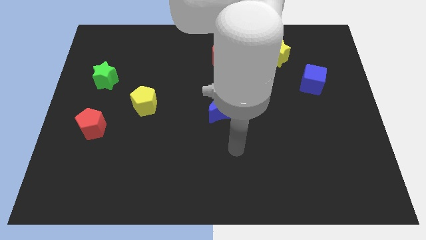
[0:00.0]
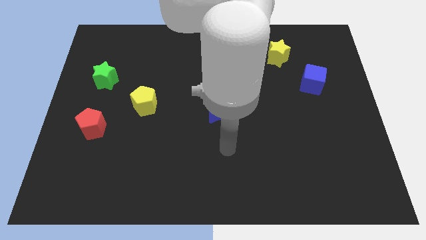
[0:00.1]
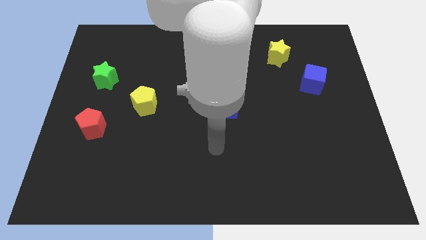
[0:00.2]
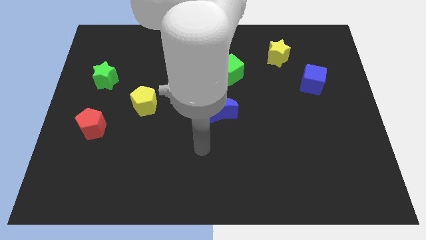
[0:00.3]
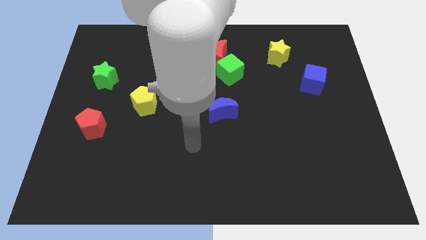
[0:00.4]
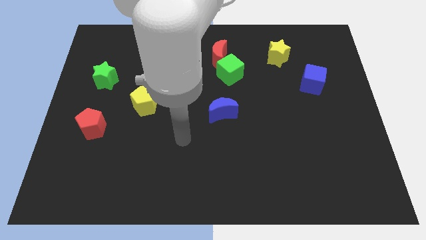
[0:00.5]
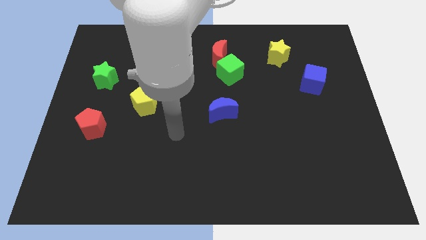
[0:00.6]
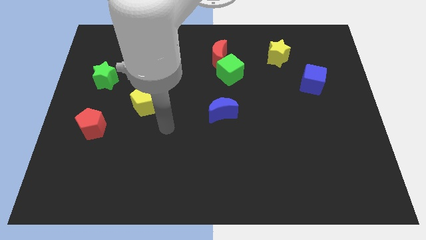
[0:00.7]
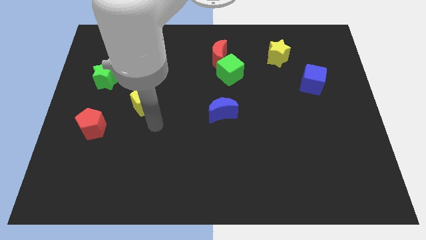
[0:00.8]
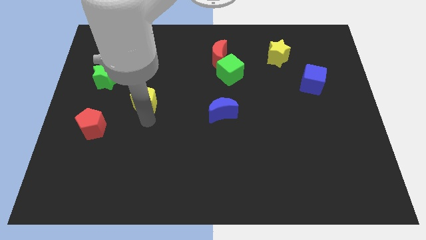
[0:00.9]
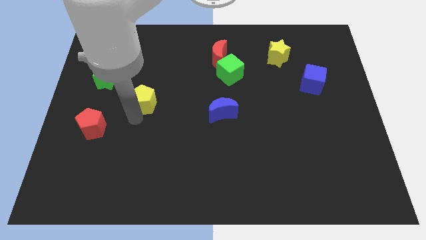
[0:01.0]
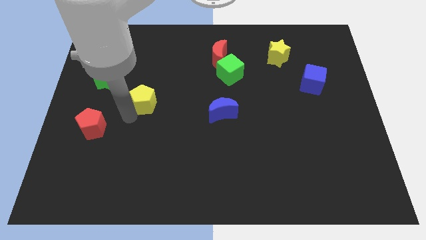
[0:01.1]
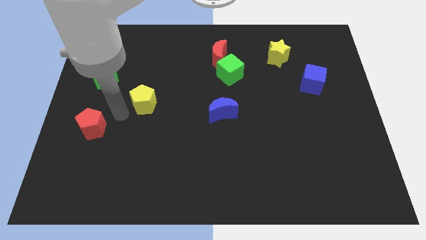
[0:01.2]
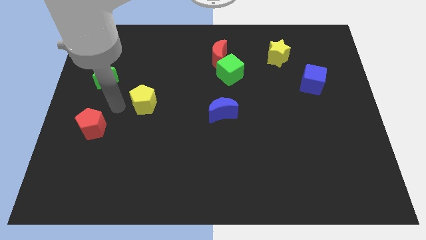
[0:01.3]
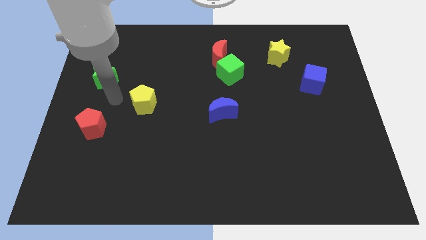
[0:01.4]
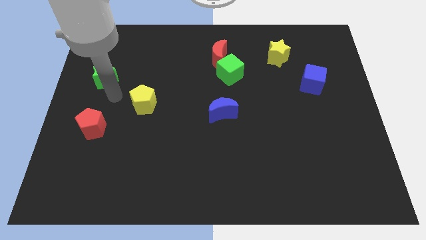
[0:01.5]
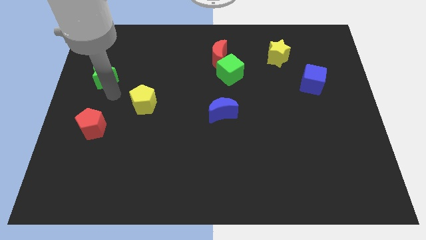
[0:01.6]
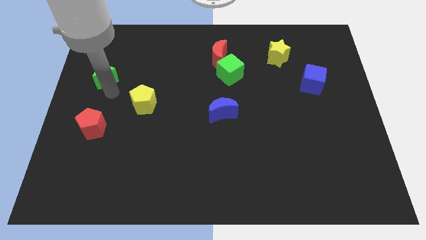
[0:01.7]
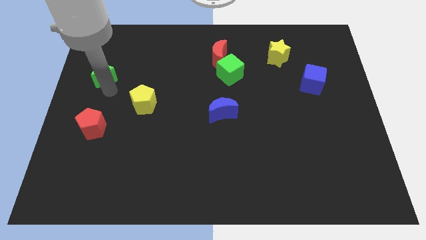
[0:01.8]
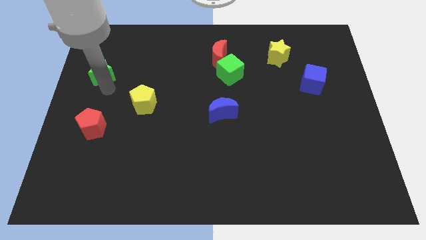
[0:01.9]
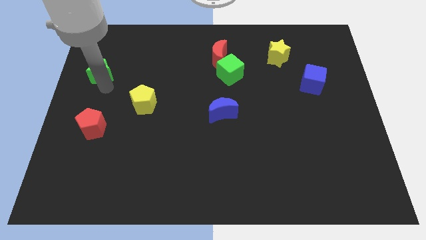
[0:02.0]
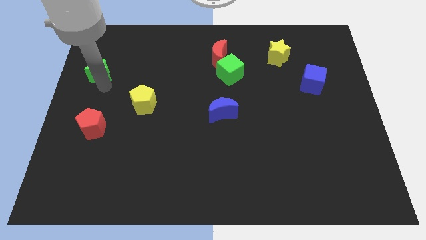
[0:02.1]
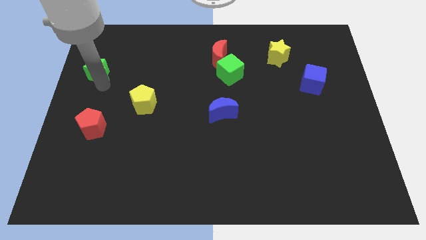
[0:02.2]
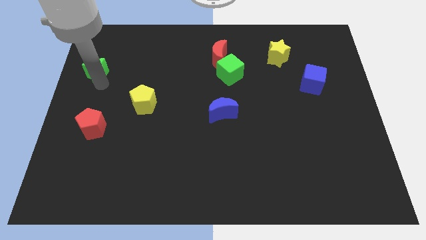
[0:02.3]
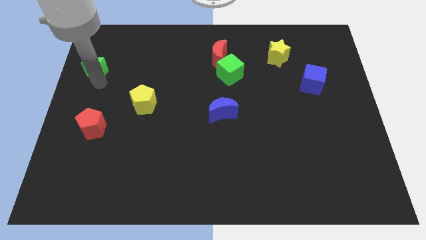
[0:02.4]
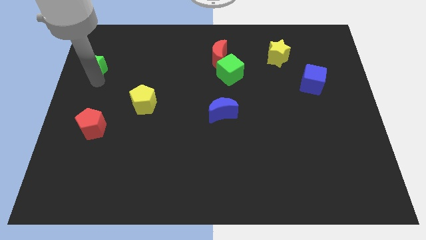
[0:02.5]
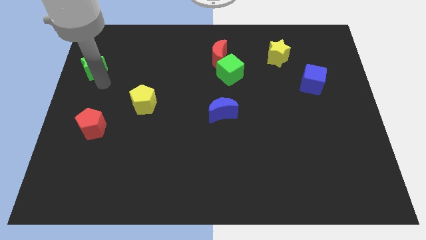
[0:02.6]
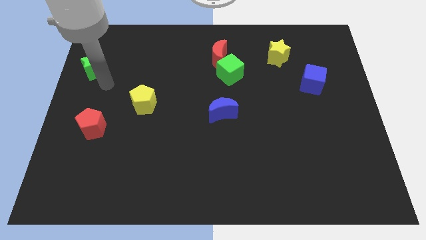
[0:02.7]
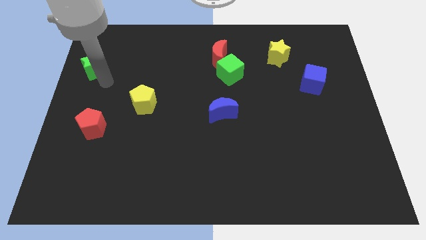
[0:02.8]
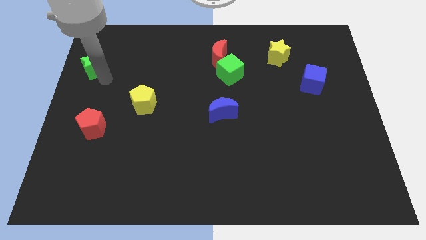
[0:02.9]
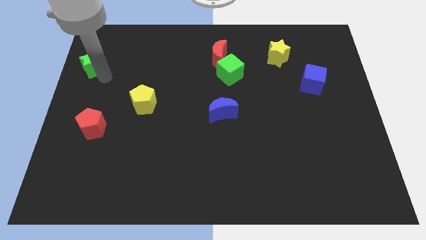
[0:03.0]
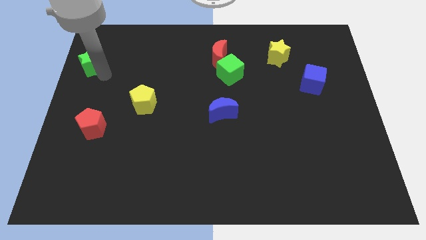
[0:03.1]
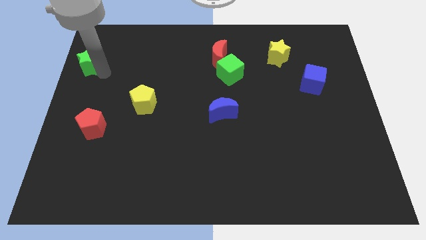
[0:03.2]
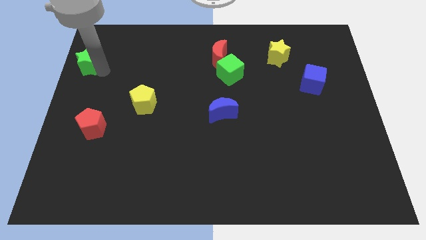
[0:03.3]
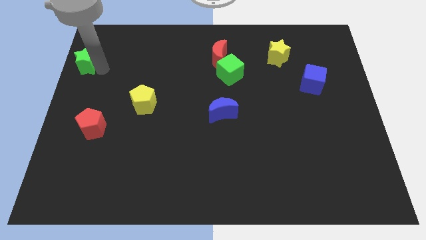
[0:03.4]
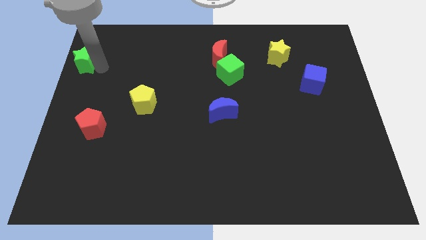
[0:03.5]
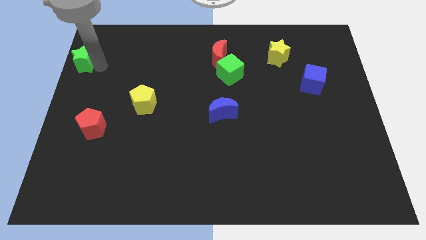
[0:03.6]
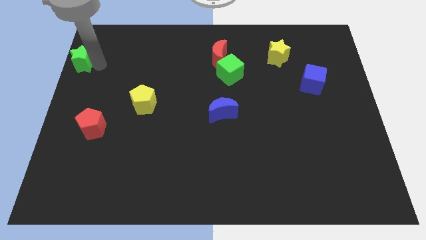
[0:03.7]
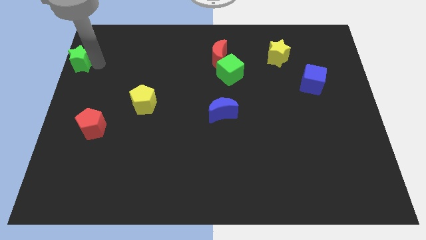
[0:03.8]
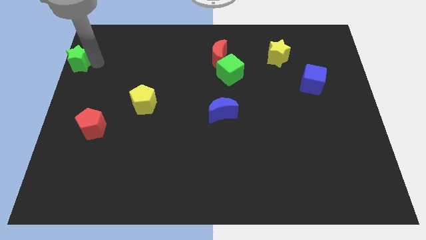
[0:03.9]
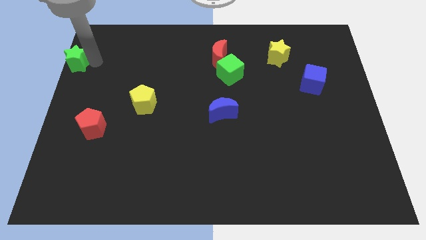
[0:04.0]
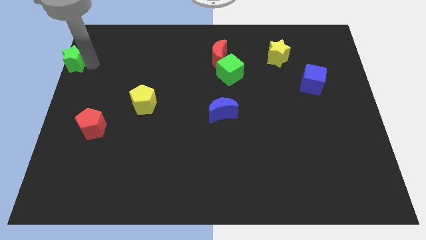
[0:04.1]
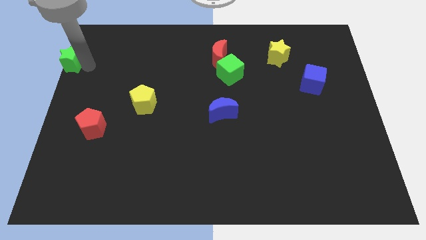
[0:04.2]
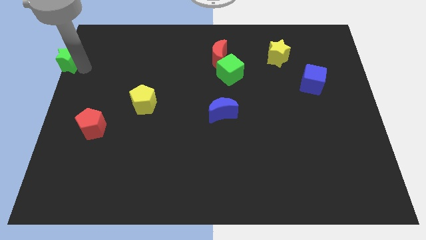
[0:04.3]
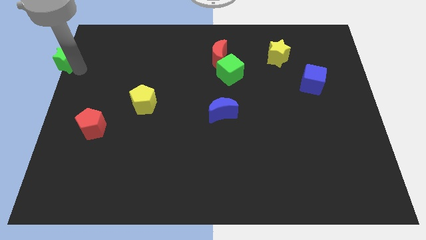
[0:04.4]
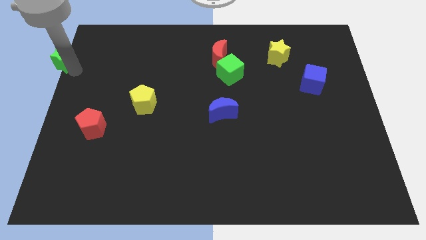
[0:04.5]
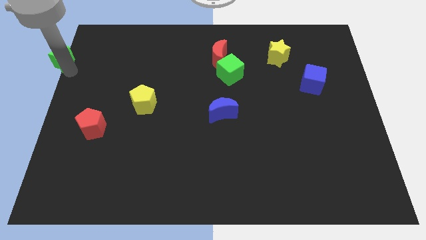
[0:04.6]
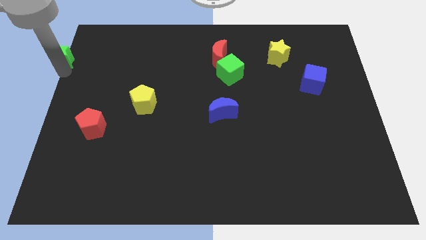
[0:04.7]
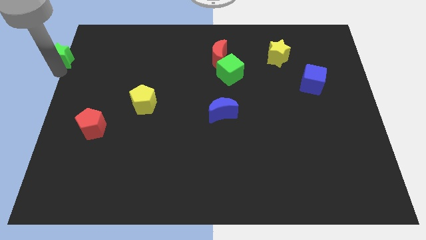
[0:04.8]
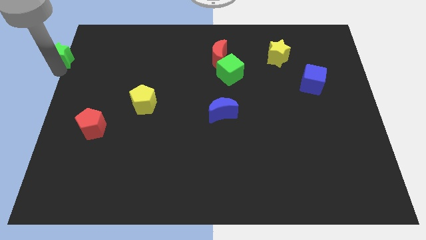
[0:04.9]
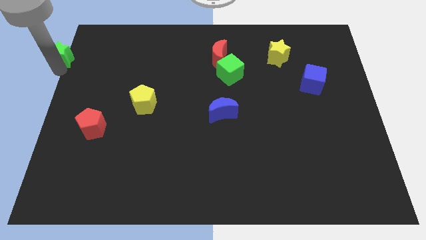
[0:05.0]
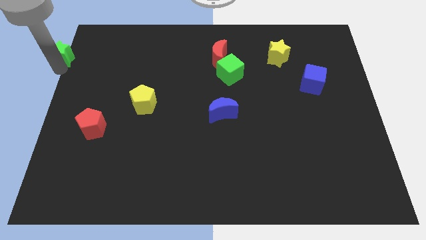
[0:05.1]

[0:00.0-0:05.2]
move the green star to the top left of the board

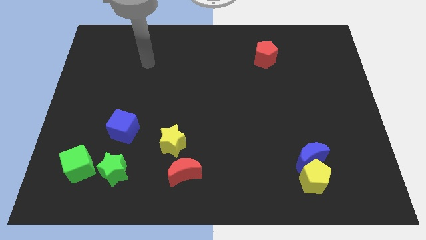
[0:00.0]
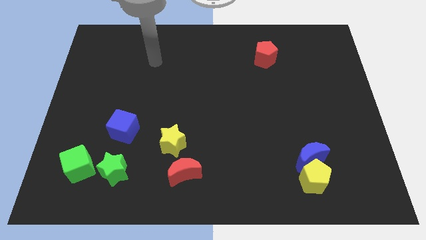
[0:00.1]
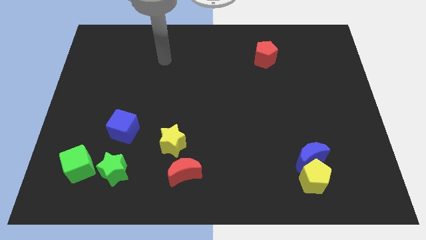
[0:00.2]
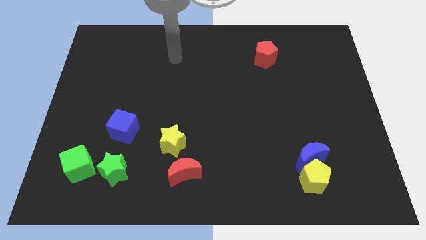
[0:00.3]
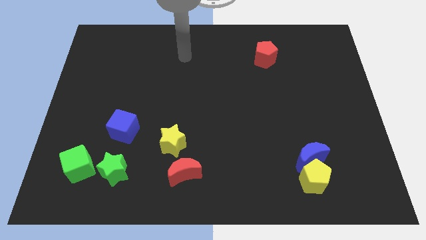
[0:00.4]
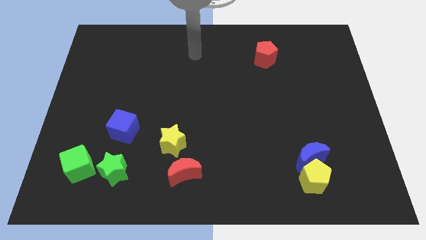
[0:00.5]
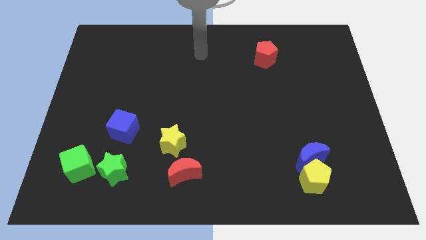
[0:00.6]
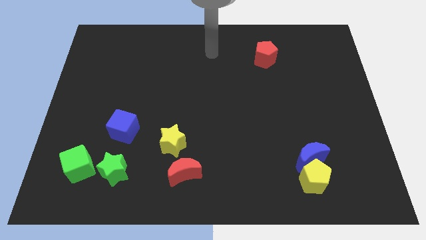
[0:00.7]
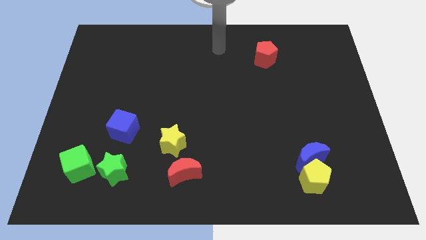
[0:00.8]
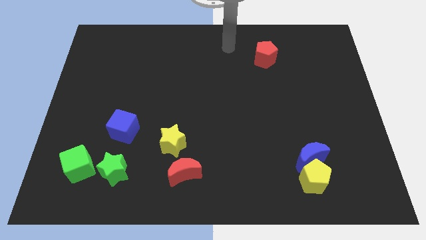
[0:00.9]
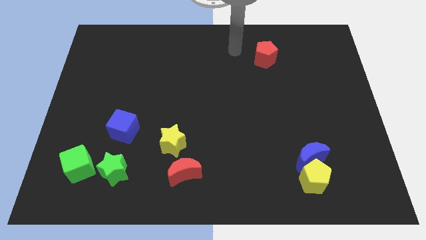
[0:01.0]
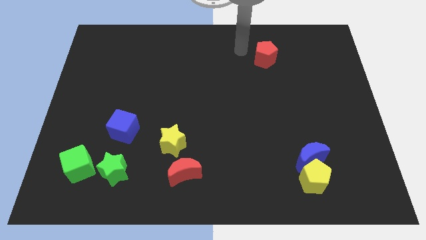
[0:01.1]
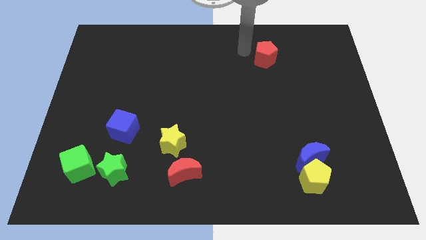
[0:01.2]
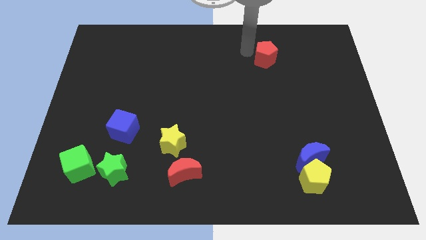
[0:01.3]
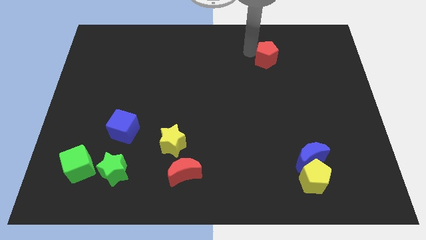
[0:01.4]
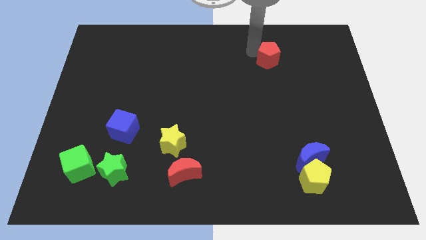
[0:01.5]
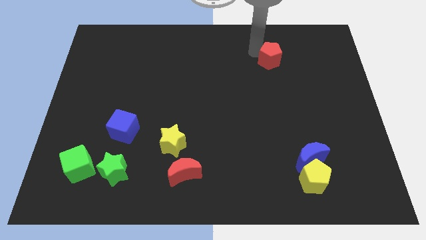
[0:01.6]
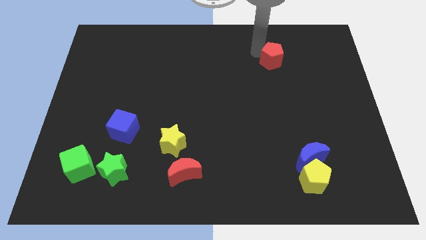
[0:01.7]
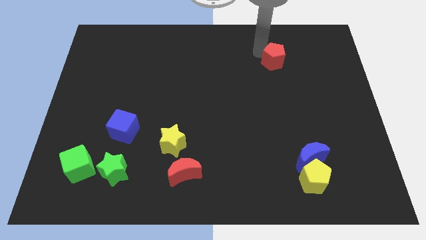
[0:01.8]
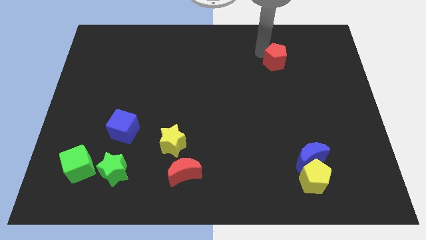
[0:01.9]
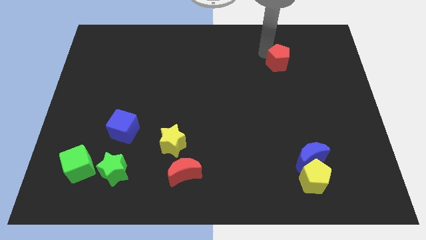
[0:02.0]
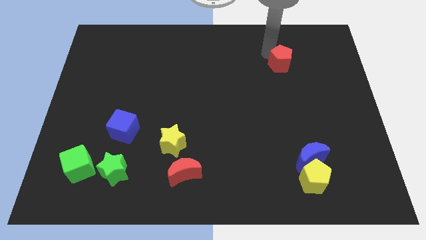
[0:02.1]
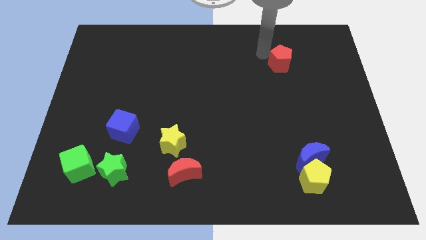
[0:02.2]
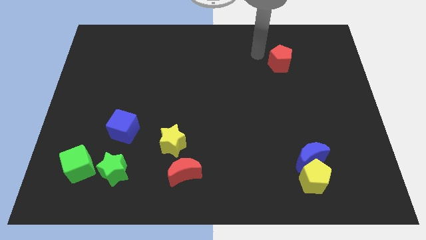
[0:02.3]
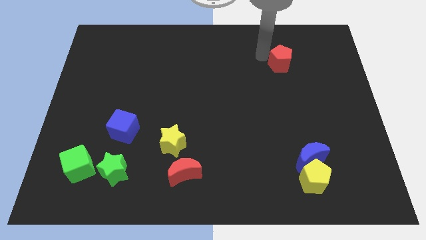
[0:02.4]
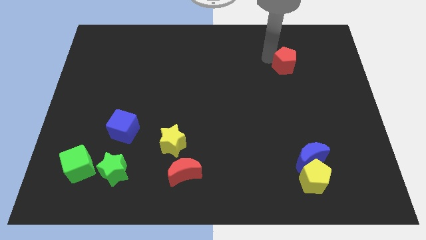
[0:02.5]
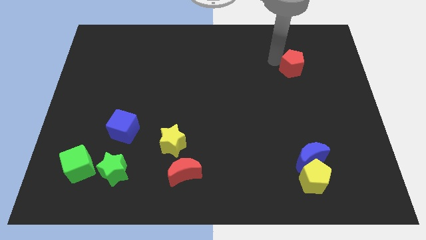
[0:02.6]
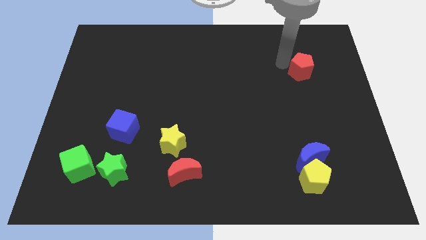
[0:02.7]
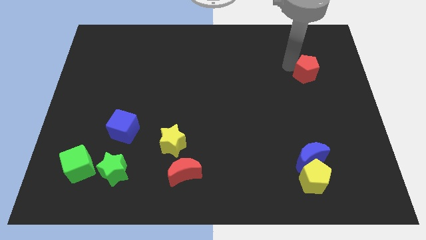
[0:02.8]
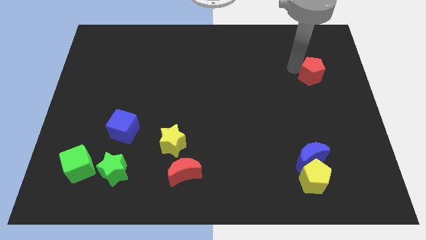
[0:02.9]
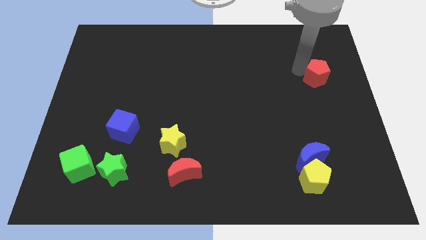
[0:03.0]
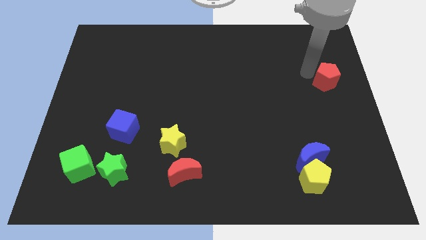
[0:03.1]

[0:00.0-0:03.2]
push the red pentagon to the center right
